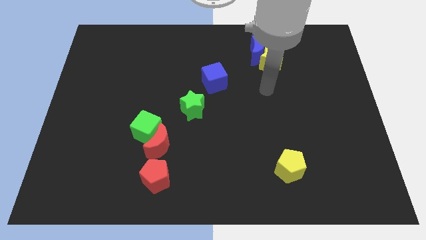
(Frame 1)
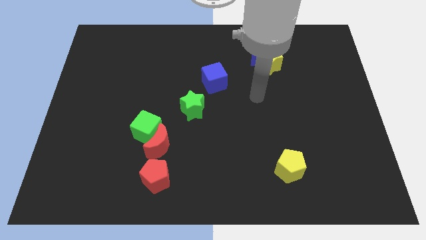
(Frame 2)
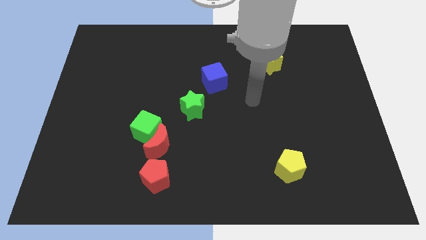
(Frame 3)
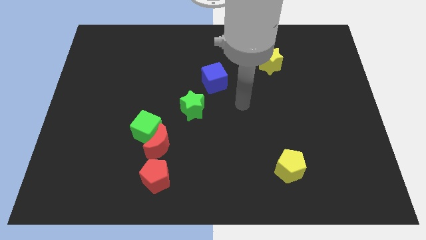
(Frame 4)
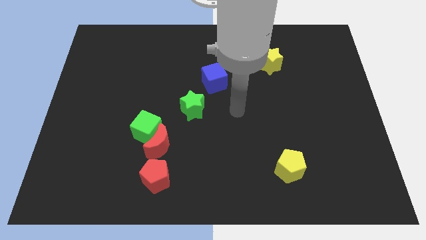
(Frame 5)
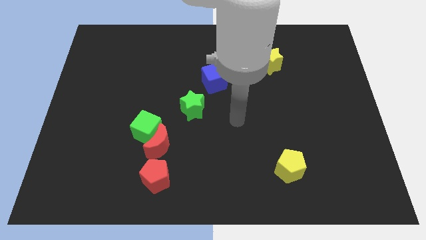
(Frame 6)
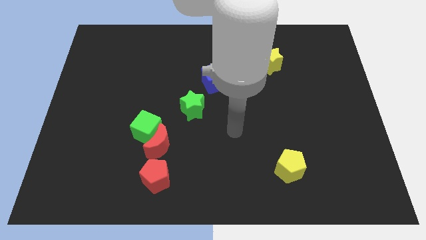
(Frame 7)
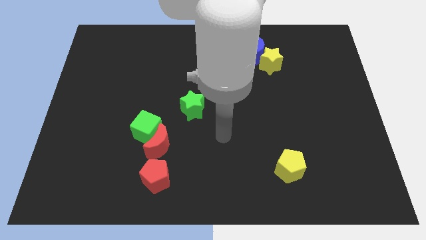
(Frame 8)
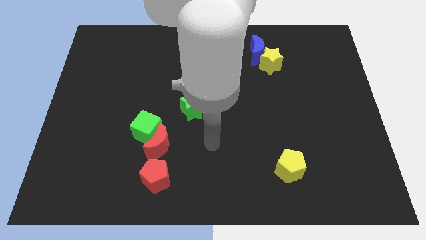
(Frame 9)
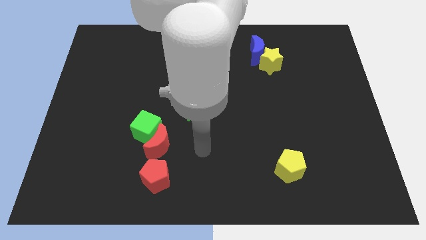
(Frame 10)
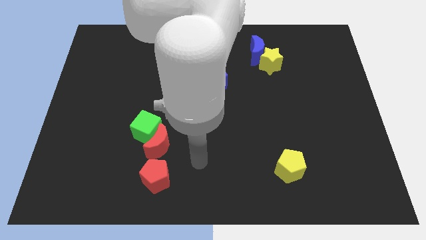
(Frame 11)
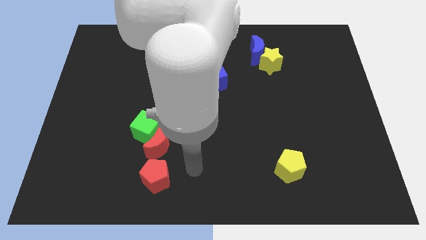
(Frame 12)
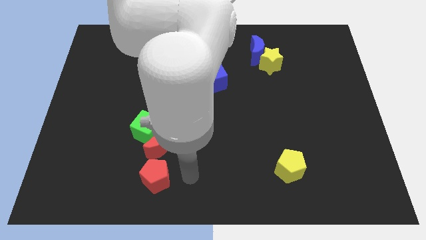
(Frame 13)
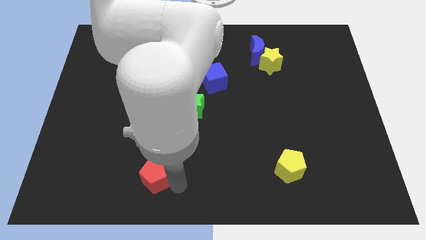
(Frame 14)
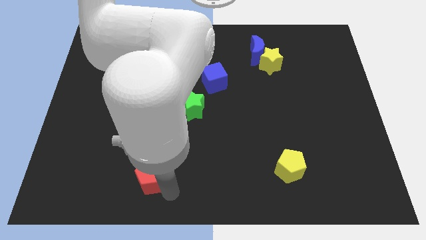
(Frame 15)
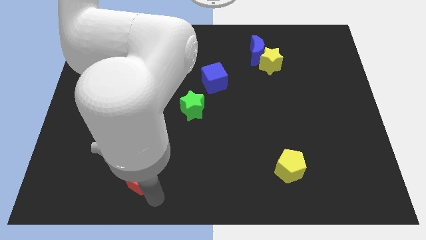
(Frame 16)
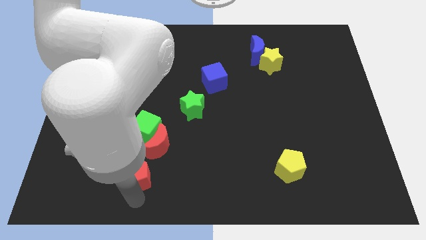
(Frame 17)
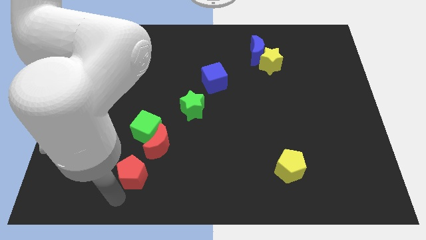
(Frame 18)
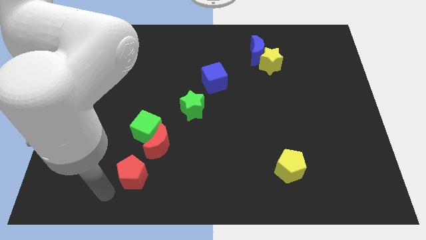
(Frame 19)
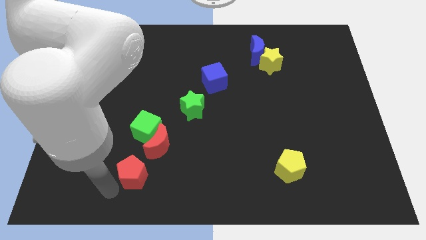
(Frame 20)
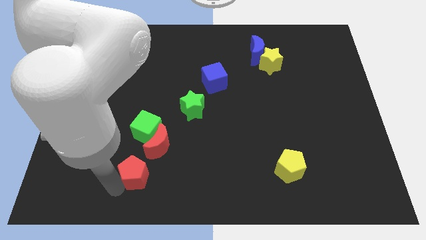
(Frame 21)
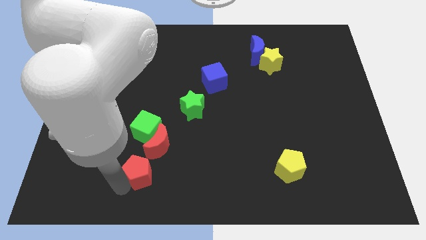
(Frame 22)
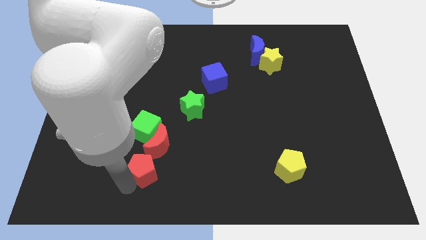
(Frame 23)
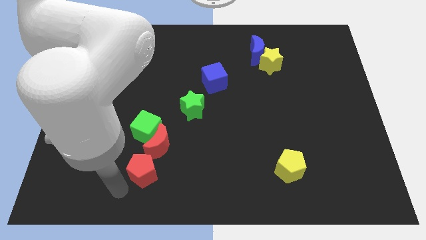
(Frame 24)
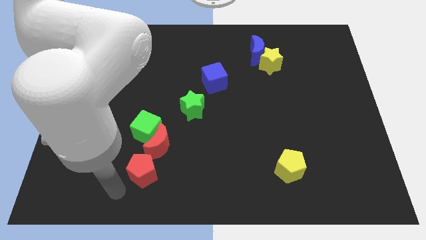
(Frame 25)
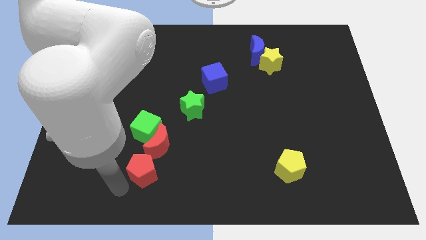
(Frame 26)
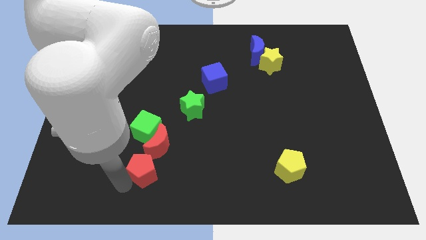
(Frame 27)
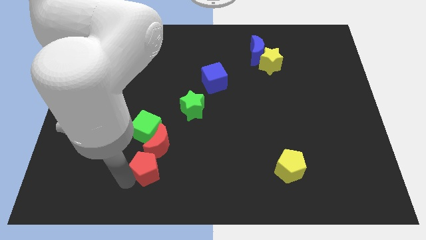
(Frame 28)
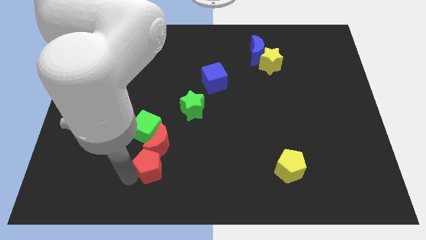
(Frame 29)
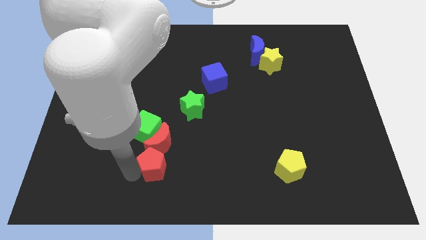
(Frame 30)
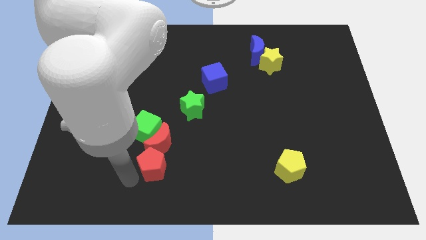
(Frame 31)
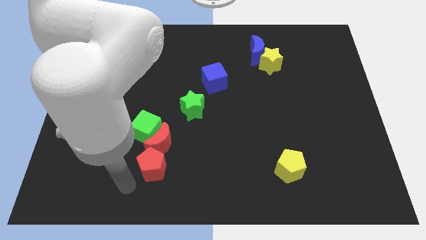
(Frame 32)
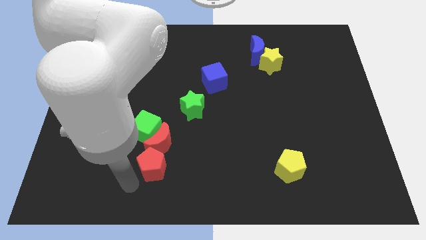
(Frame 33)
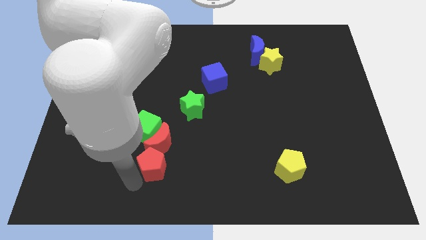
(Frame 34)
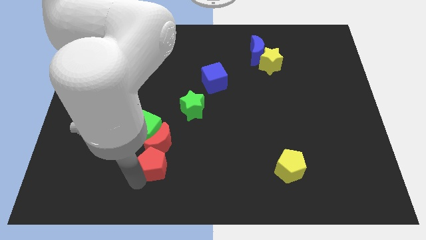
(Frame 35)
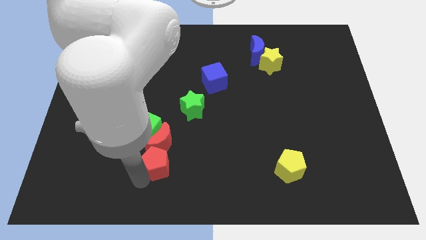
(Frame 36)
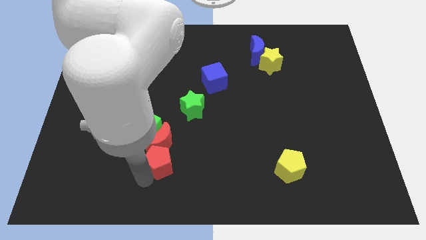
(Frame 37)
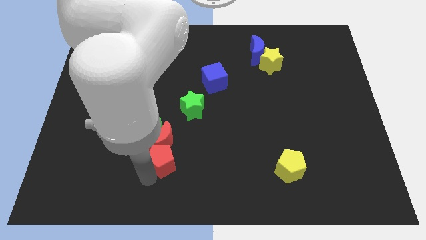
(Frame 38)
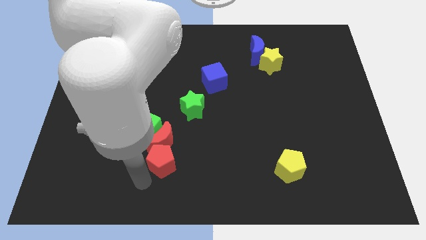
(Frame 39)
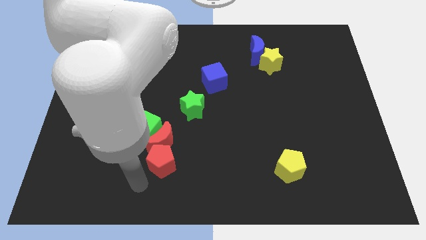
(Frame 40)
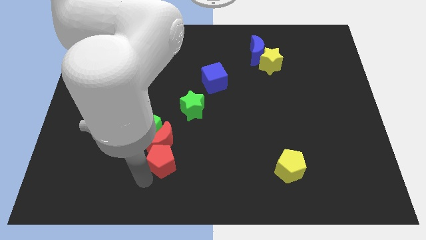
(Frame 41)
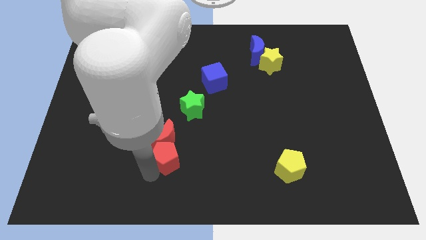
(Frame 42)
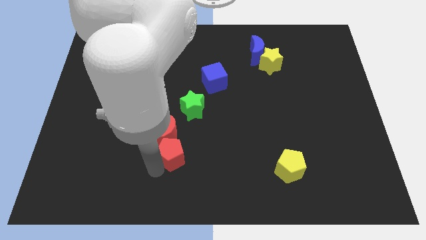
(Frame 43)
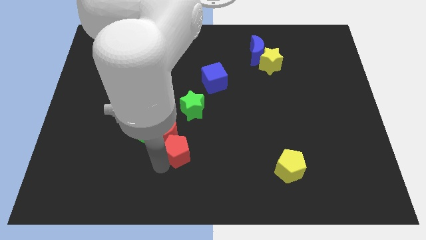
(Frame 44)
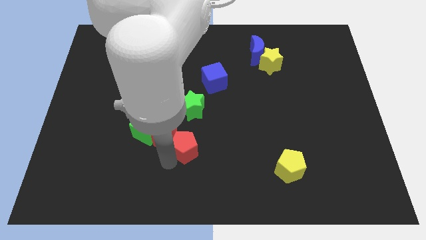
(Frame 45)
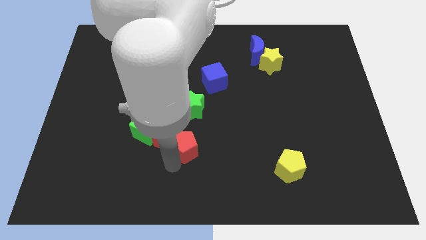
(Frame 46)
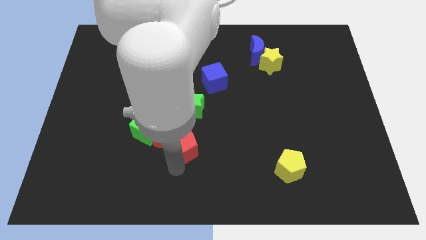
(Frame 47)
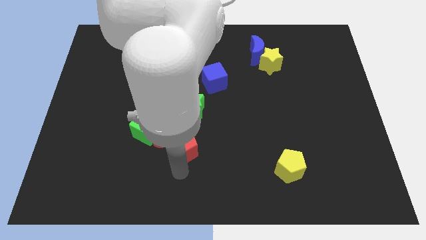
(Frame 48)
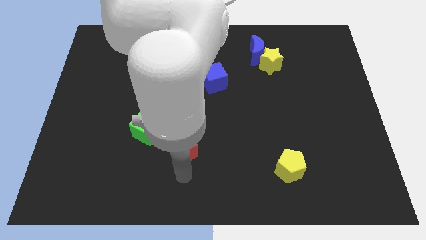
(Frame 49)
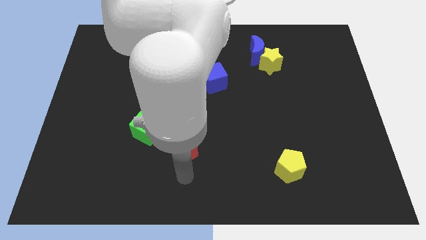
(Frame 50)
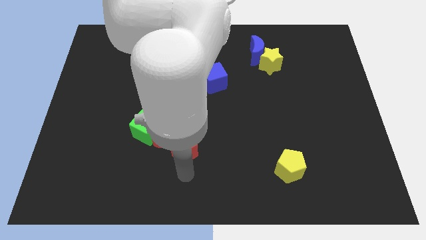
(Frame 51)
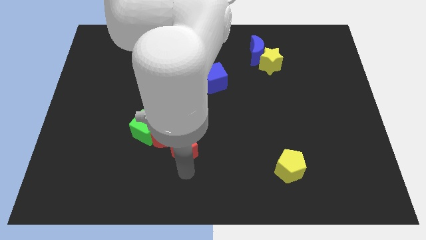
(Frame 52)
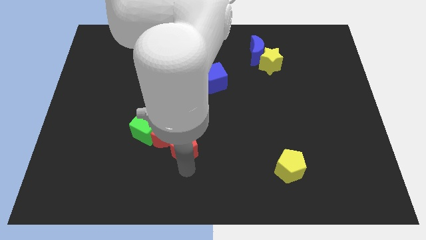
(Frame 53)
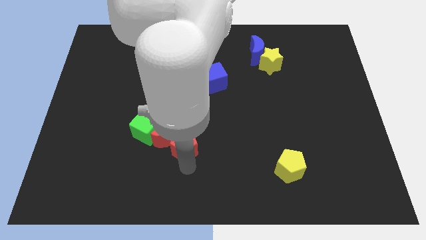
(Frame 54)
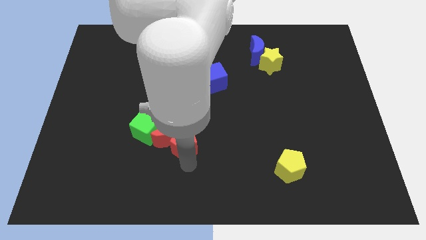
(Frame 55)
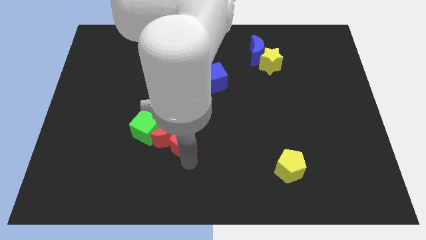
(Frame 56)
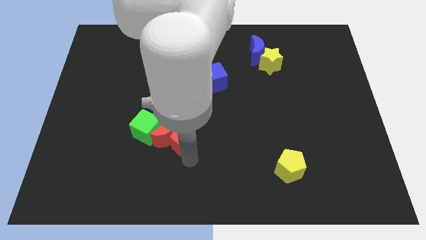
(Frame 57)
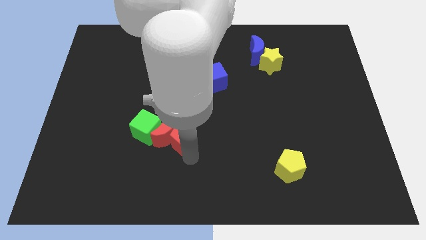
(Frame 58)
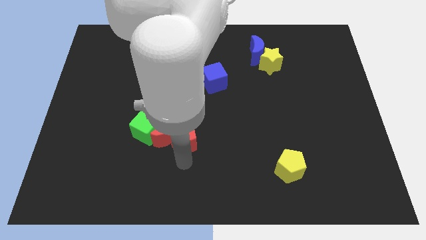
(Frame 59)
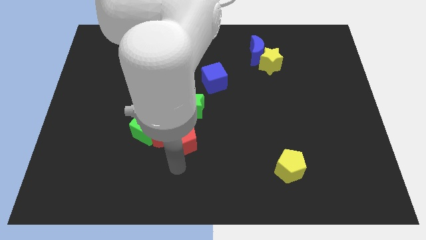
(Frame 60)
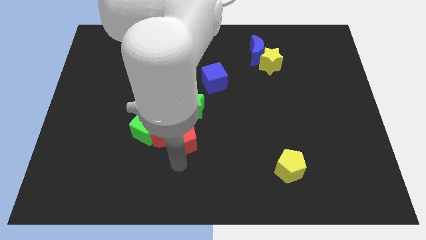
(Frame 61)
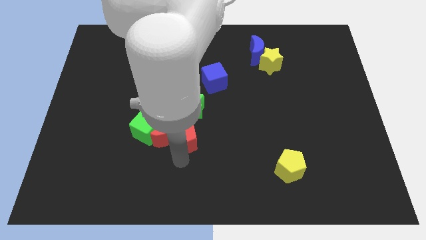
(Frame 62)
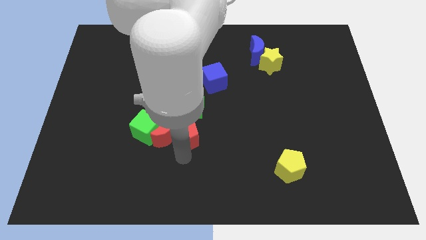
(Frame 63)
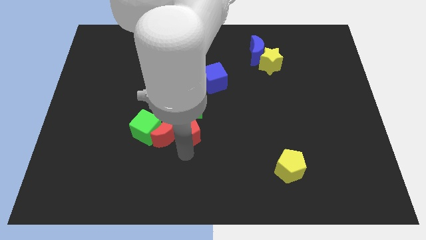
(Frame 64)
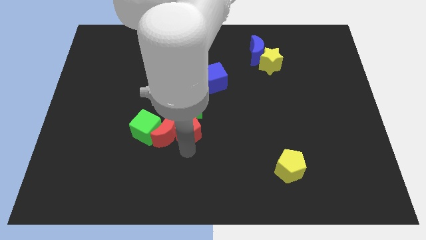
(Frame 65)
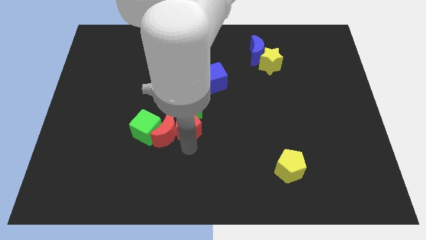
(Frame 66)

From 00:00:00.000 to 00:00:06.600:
push the red pentagon to the green star

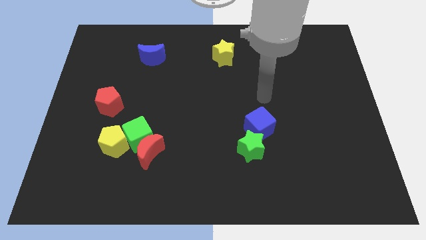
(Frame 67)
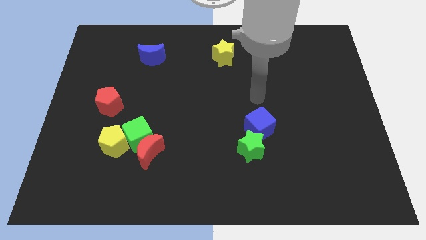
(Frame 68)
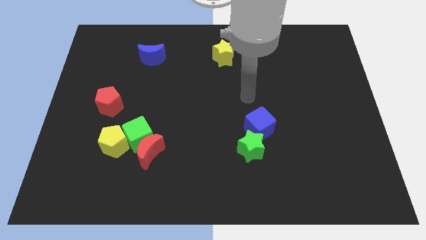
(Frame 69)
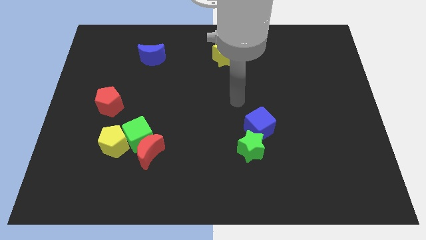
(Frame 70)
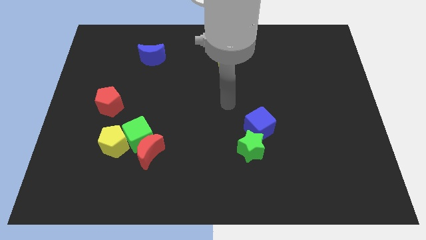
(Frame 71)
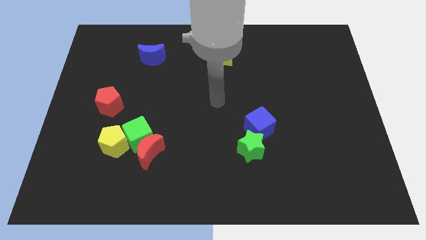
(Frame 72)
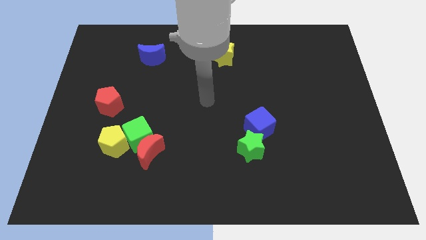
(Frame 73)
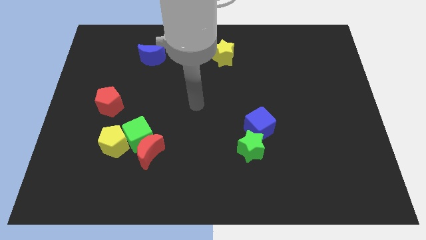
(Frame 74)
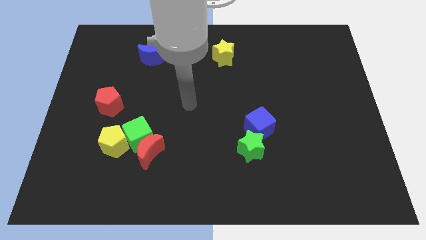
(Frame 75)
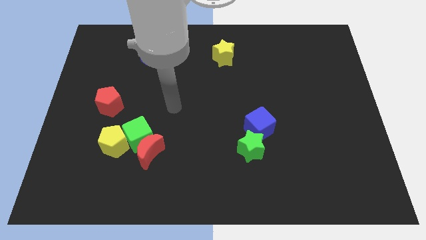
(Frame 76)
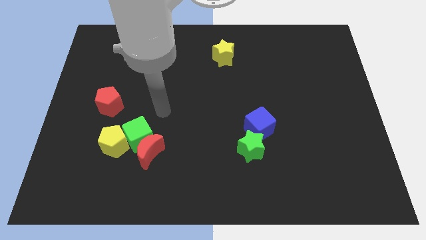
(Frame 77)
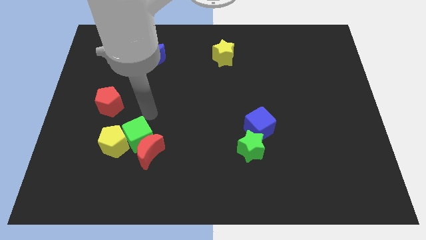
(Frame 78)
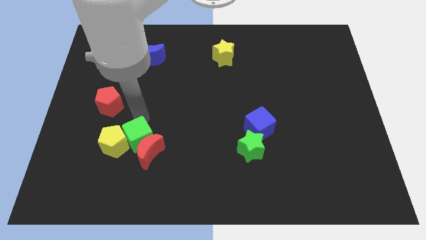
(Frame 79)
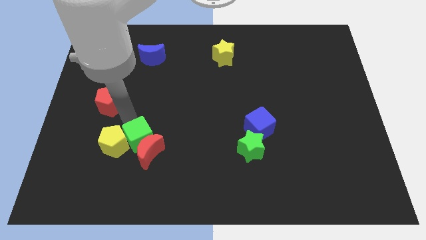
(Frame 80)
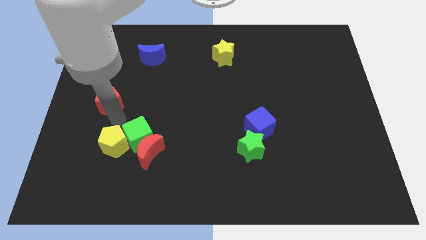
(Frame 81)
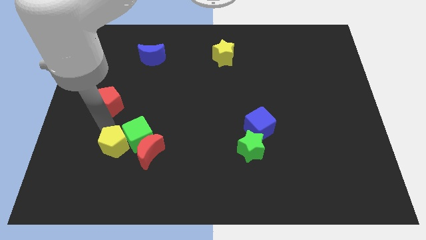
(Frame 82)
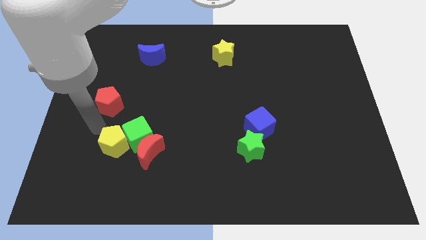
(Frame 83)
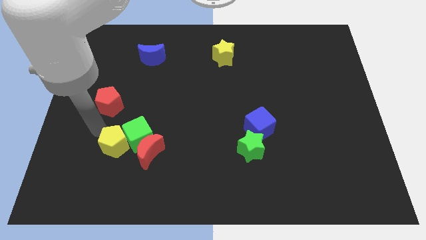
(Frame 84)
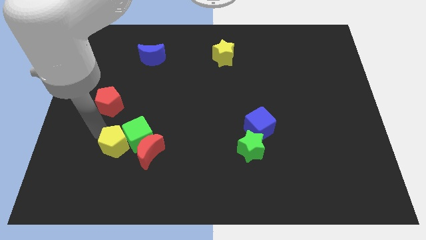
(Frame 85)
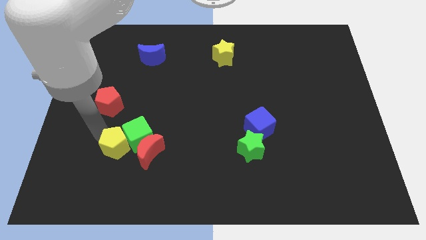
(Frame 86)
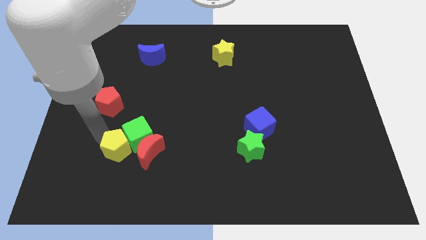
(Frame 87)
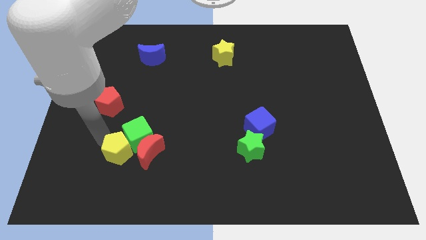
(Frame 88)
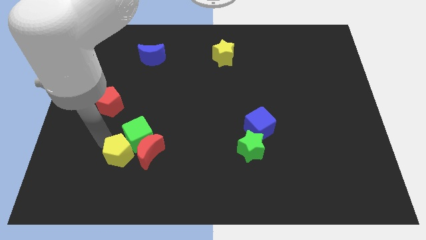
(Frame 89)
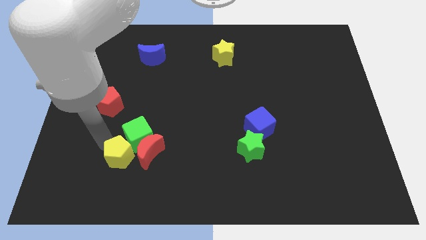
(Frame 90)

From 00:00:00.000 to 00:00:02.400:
push the yellow pentagon close to the red moon
